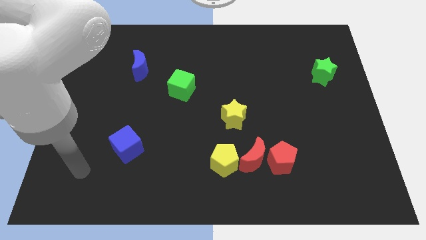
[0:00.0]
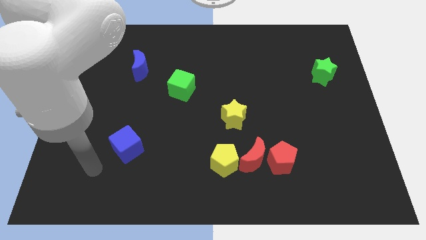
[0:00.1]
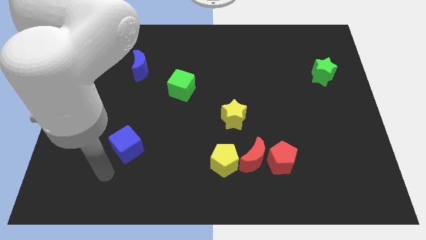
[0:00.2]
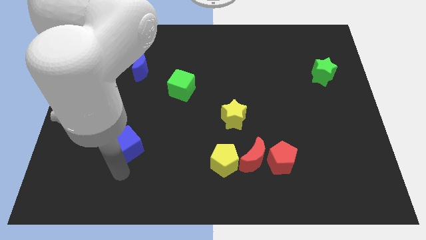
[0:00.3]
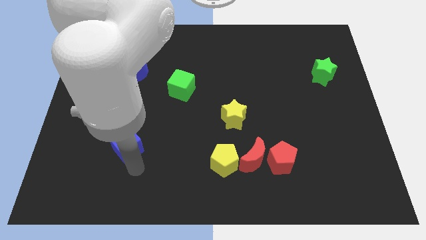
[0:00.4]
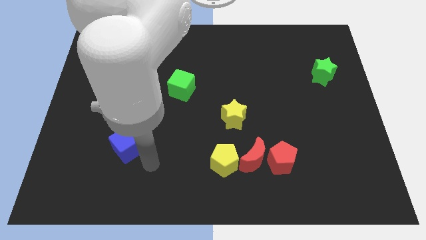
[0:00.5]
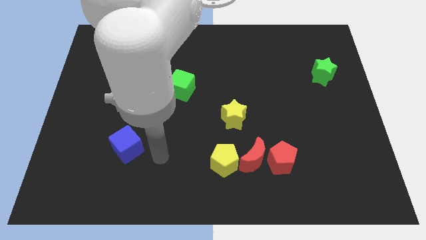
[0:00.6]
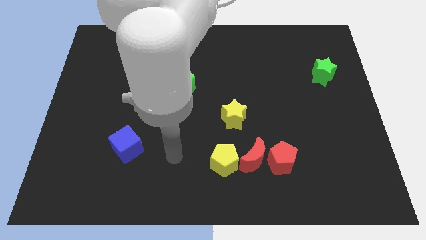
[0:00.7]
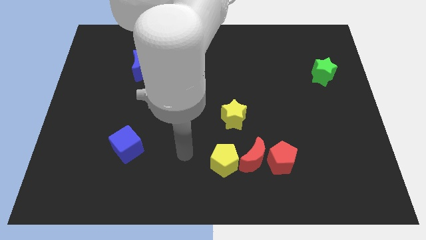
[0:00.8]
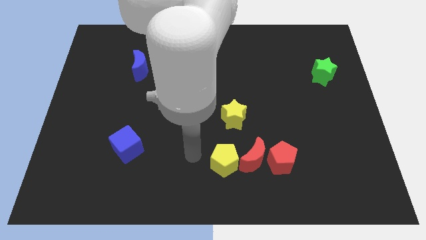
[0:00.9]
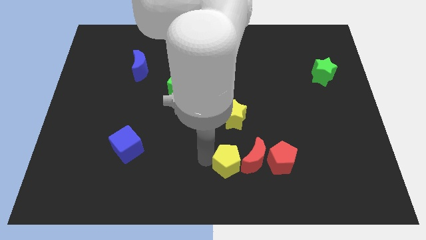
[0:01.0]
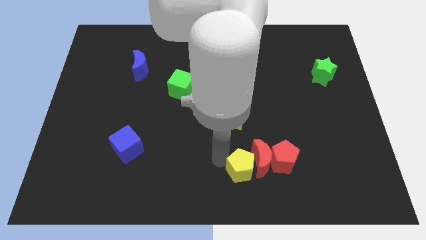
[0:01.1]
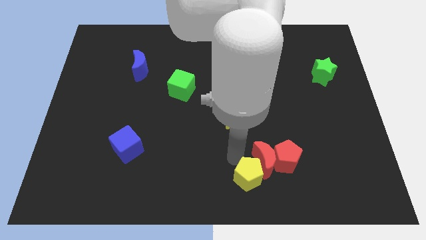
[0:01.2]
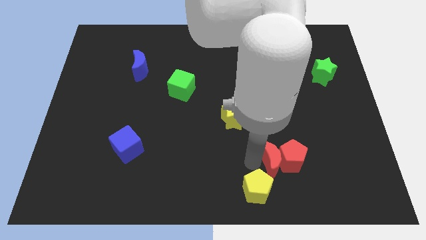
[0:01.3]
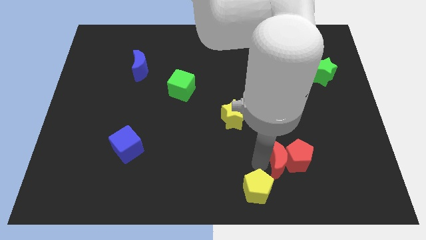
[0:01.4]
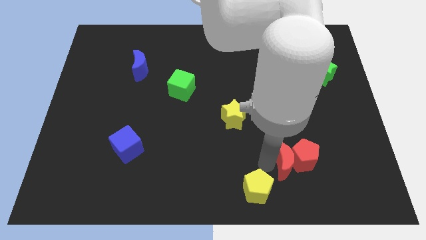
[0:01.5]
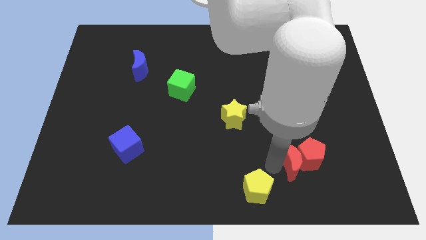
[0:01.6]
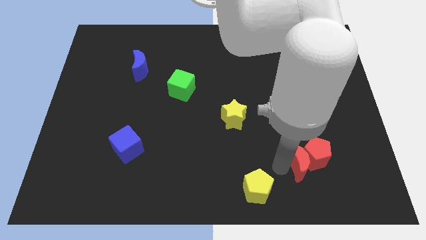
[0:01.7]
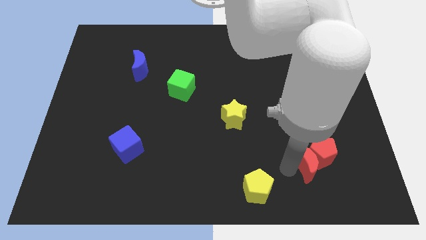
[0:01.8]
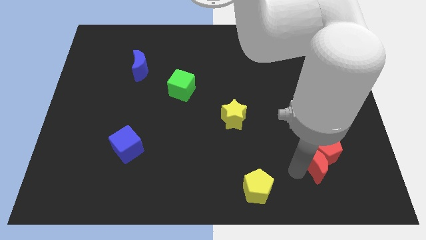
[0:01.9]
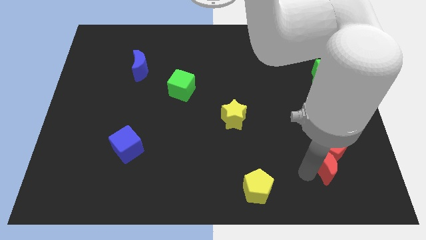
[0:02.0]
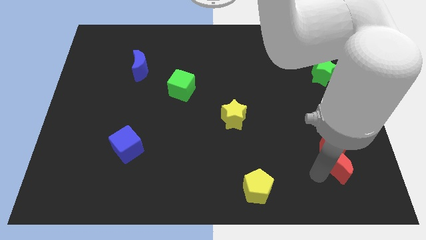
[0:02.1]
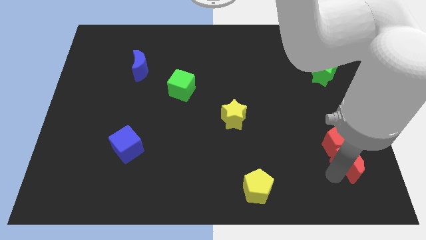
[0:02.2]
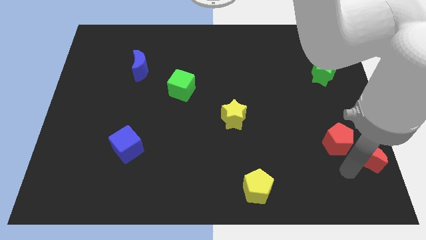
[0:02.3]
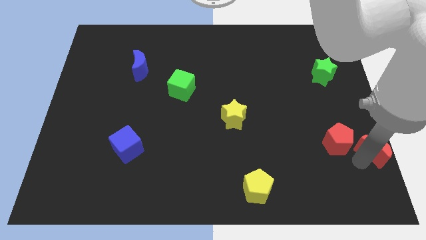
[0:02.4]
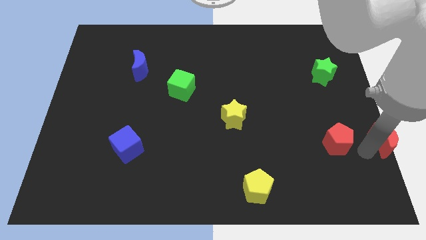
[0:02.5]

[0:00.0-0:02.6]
separate the red pentagon from the red moon

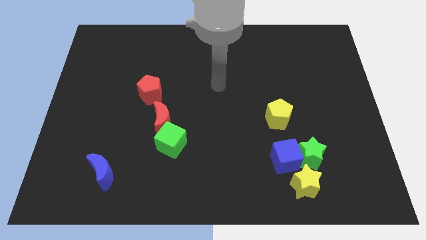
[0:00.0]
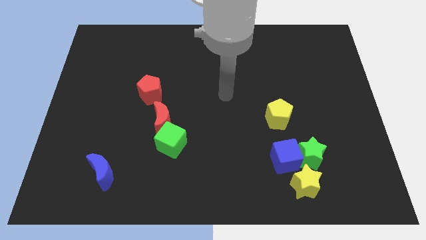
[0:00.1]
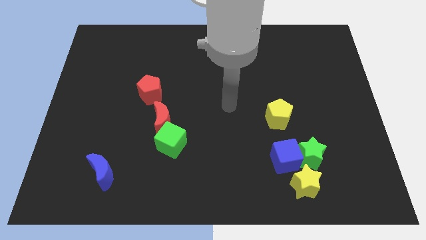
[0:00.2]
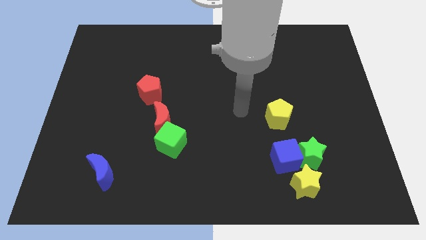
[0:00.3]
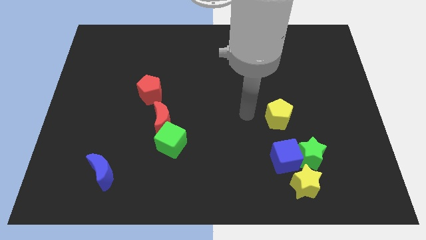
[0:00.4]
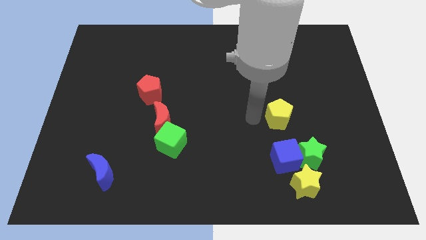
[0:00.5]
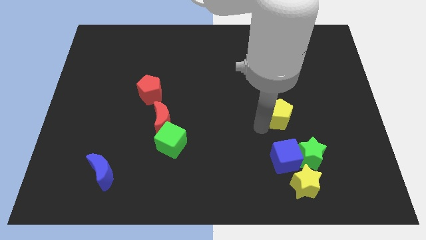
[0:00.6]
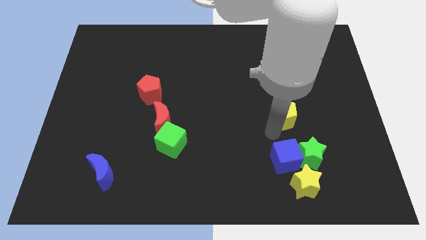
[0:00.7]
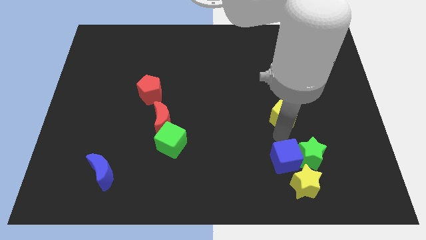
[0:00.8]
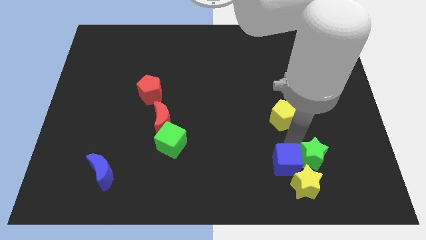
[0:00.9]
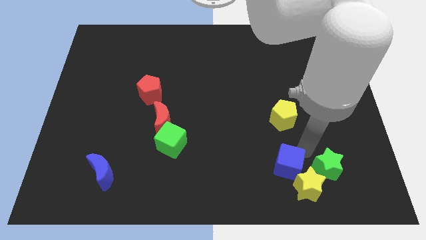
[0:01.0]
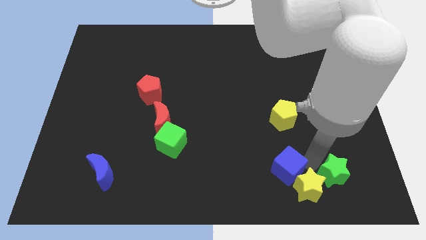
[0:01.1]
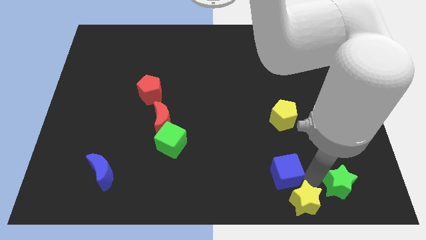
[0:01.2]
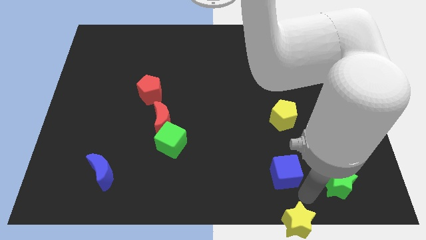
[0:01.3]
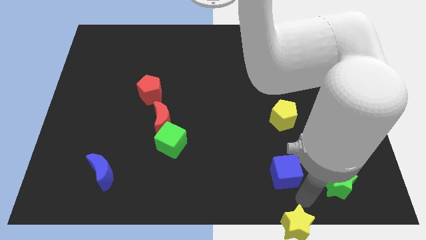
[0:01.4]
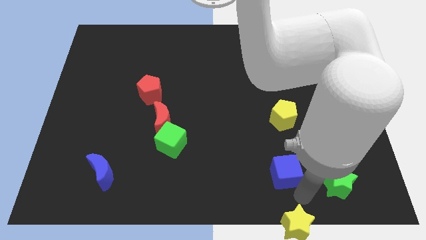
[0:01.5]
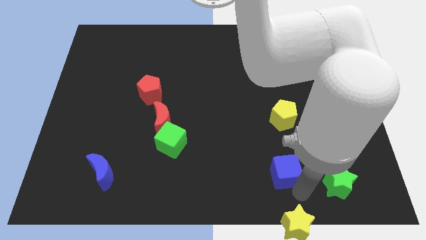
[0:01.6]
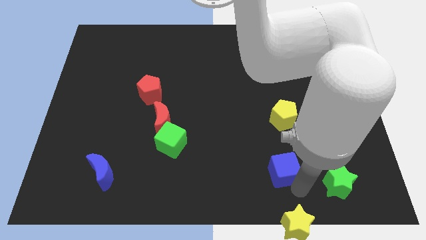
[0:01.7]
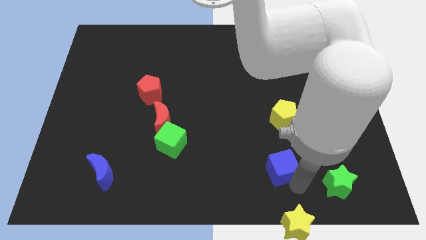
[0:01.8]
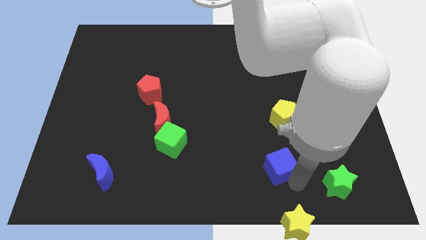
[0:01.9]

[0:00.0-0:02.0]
separate the blue cube from the green star and yellow star

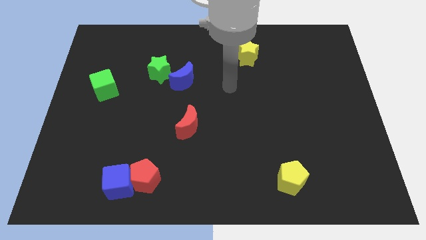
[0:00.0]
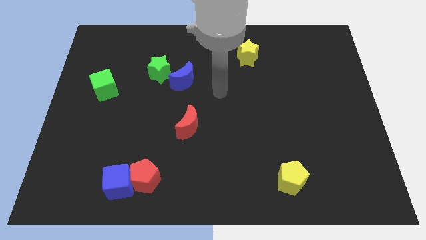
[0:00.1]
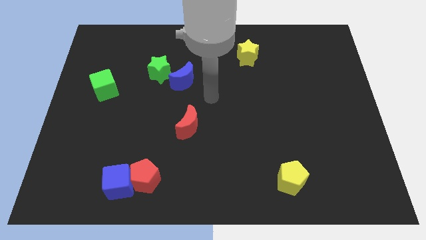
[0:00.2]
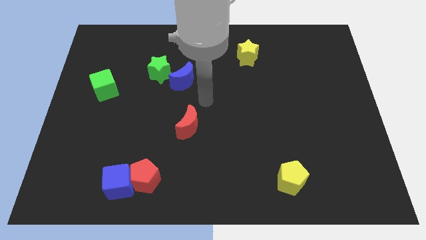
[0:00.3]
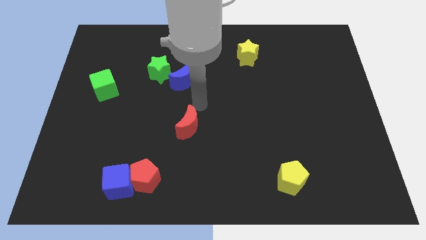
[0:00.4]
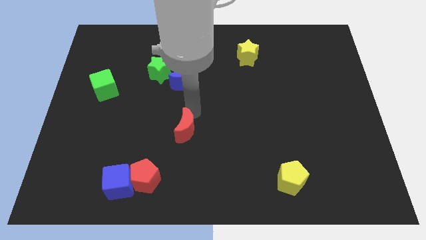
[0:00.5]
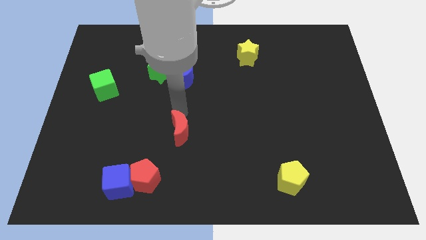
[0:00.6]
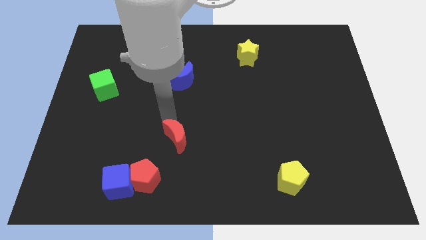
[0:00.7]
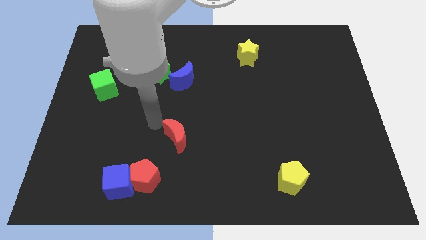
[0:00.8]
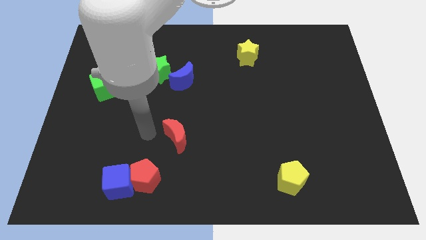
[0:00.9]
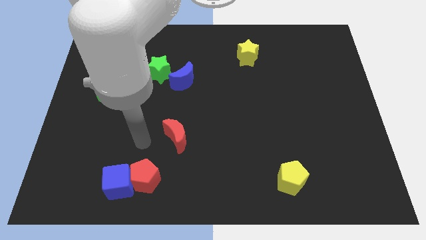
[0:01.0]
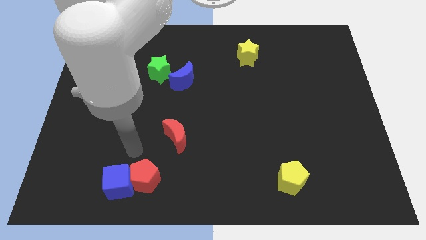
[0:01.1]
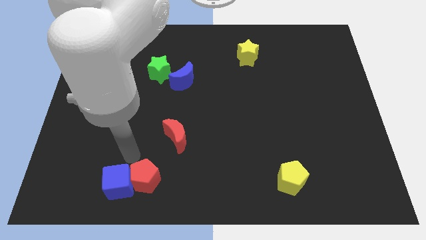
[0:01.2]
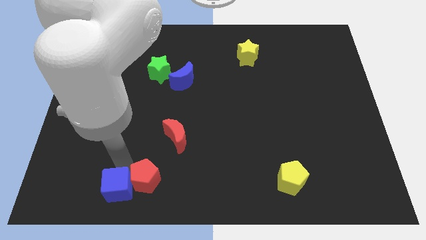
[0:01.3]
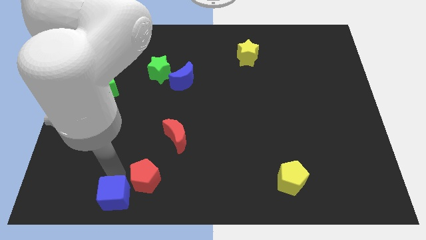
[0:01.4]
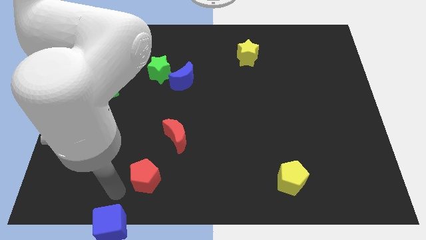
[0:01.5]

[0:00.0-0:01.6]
pull the red pentagon apart from the blue cube

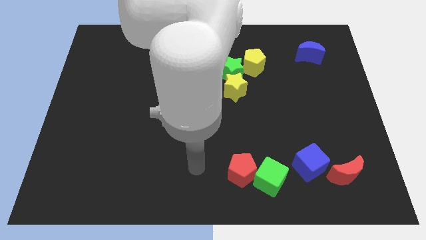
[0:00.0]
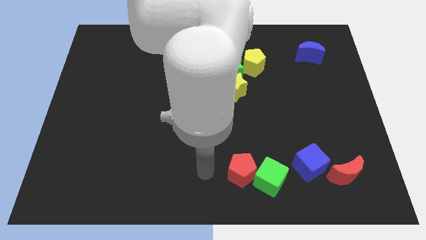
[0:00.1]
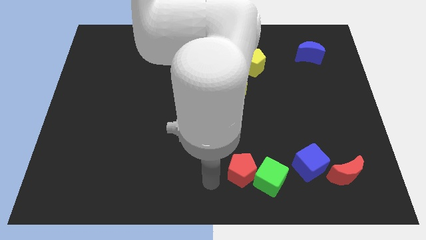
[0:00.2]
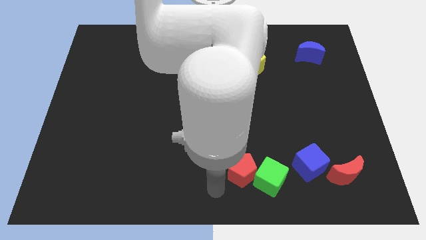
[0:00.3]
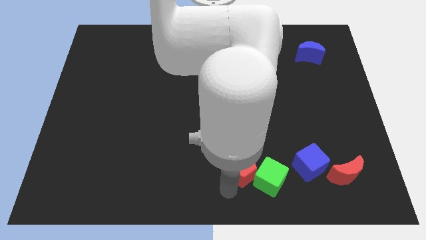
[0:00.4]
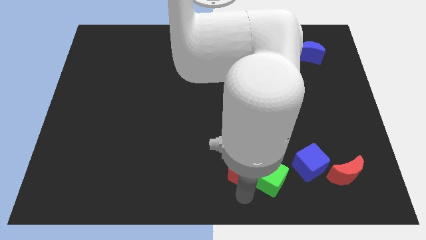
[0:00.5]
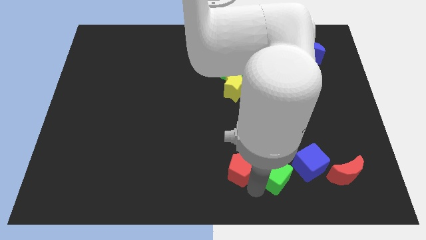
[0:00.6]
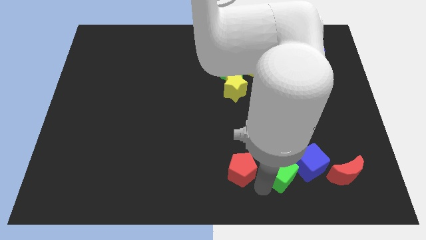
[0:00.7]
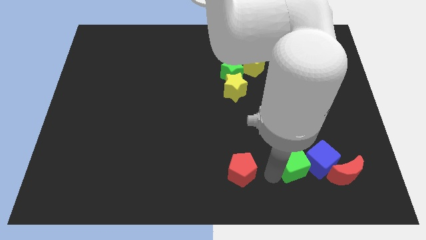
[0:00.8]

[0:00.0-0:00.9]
pull the red pentagon apart from the green cube

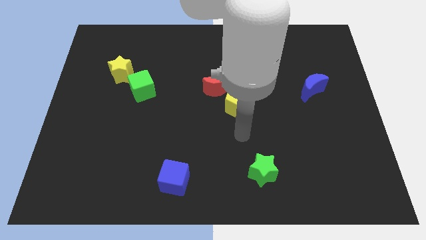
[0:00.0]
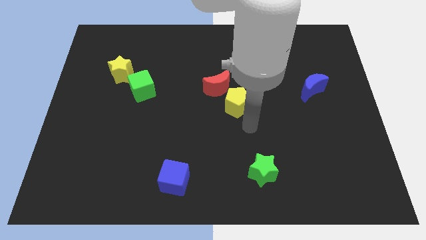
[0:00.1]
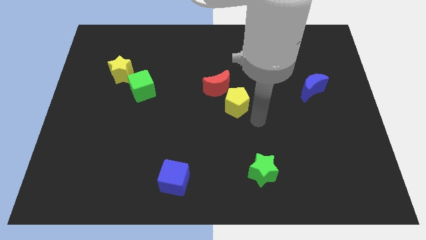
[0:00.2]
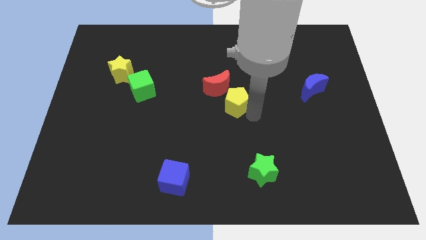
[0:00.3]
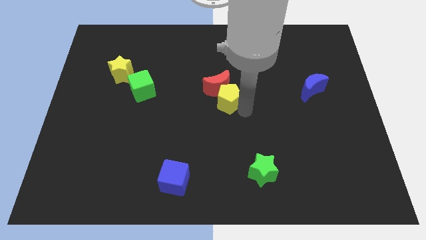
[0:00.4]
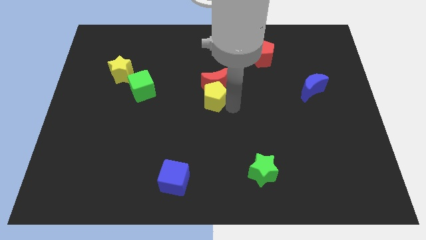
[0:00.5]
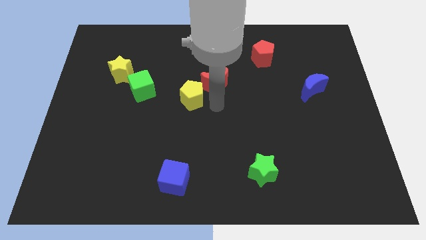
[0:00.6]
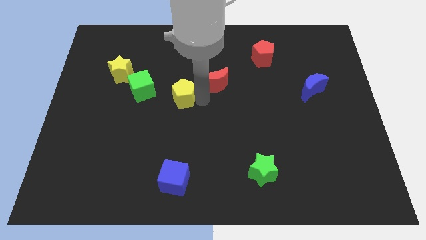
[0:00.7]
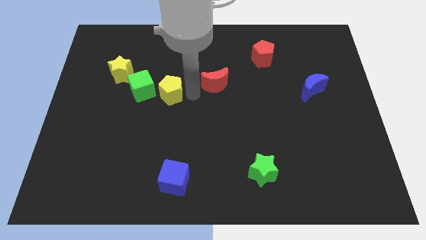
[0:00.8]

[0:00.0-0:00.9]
move the red moon away from the yellow pentagon

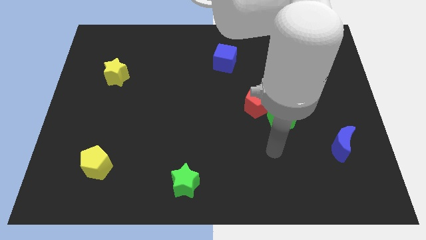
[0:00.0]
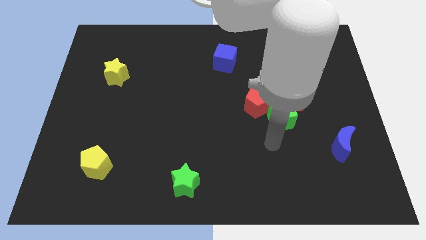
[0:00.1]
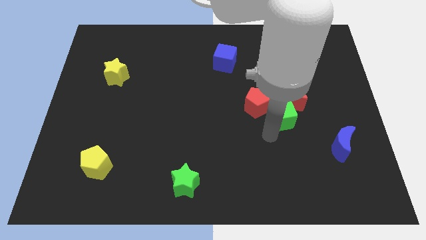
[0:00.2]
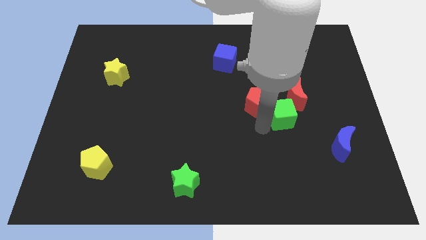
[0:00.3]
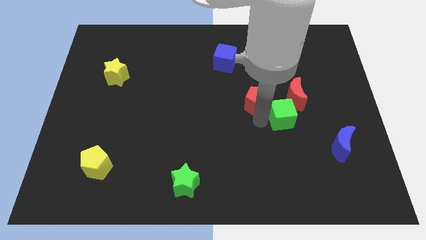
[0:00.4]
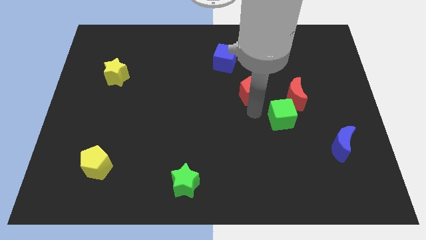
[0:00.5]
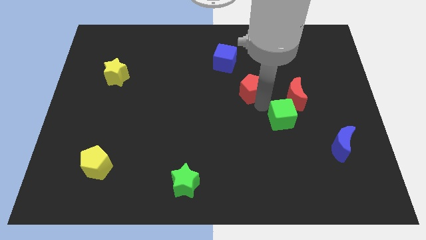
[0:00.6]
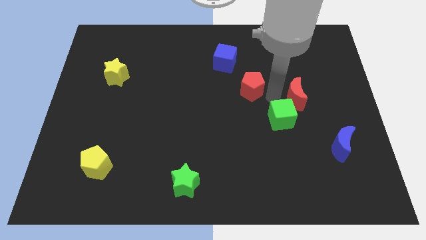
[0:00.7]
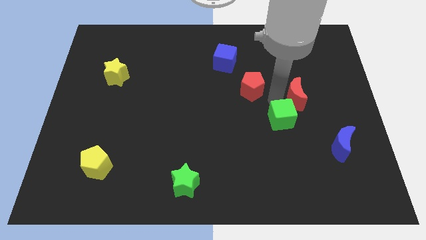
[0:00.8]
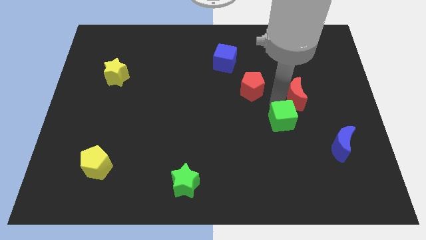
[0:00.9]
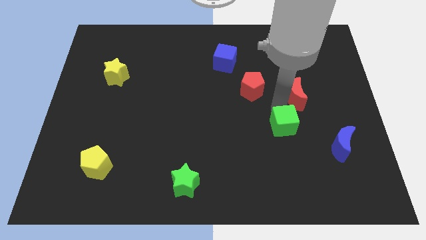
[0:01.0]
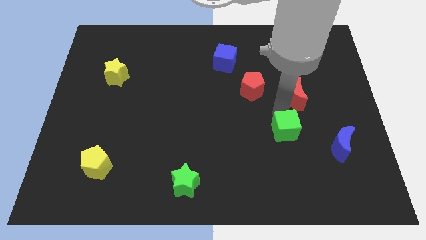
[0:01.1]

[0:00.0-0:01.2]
separate the green cube from the red pentagon and red moon
